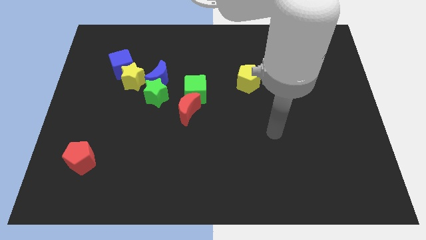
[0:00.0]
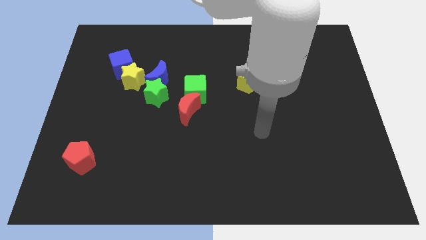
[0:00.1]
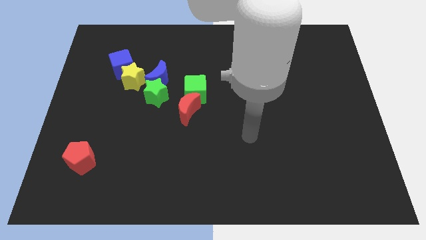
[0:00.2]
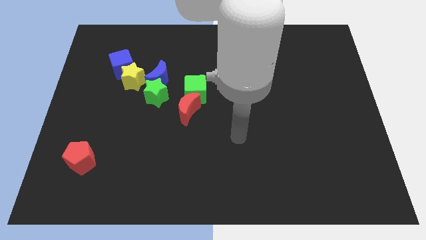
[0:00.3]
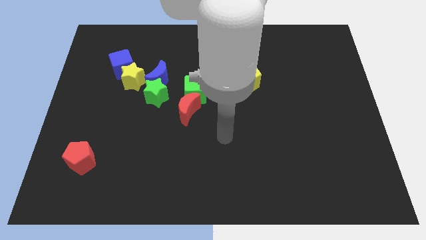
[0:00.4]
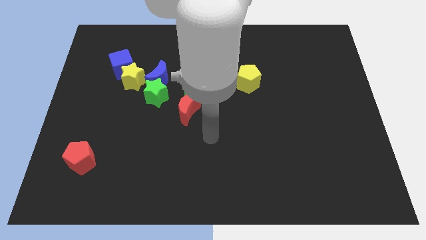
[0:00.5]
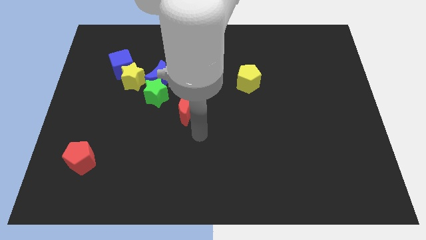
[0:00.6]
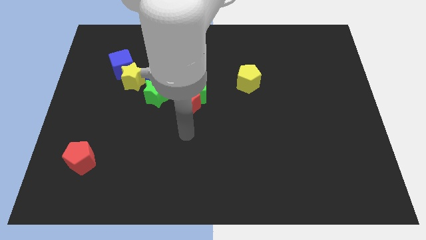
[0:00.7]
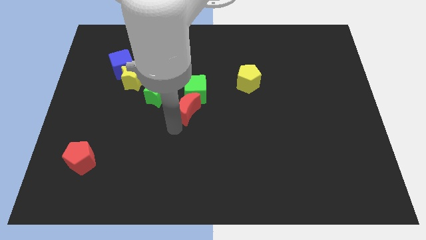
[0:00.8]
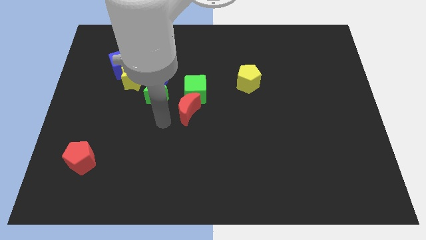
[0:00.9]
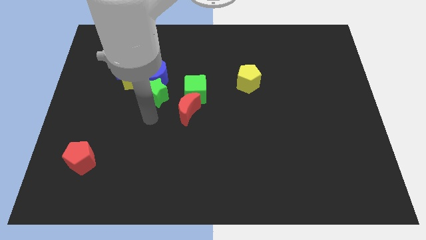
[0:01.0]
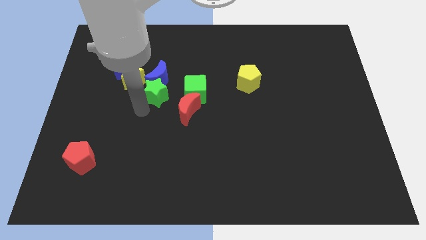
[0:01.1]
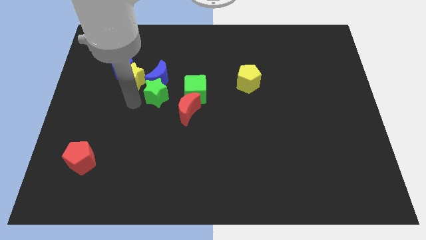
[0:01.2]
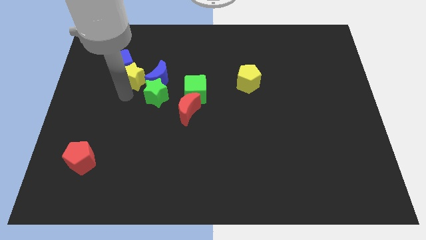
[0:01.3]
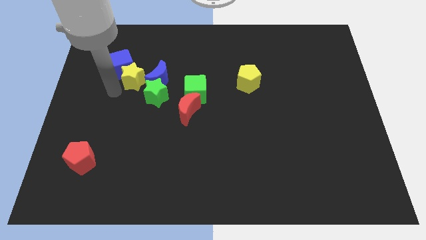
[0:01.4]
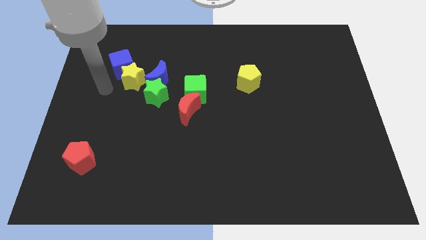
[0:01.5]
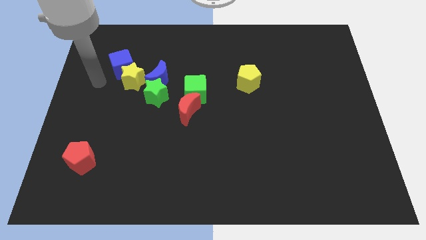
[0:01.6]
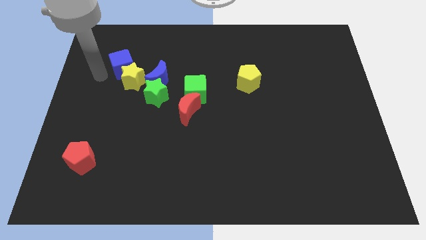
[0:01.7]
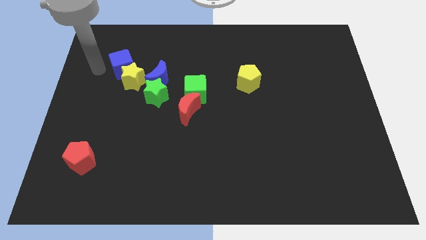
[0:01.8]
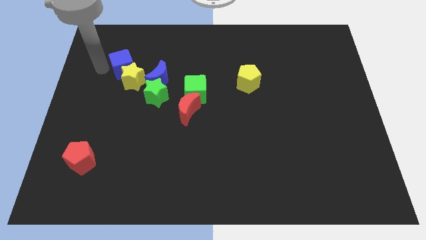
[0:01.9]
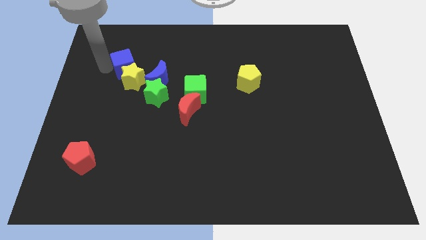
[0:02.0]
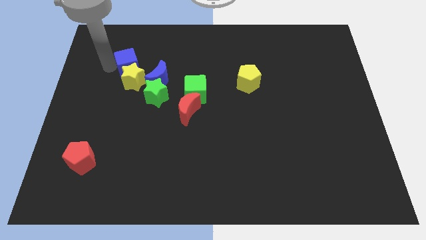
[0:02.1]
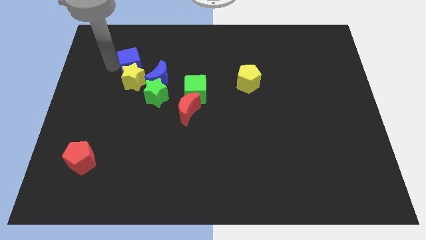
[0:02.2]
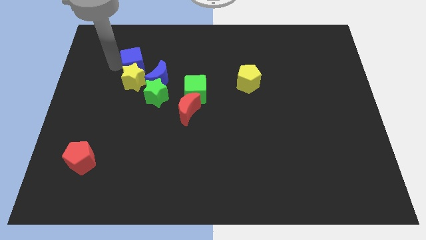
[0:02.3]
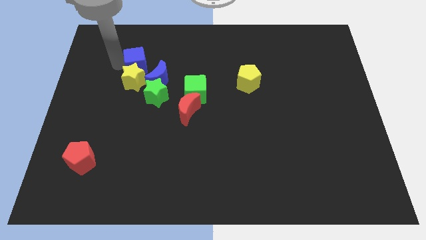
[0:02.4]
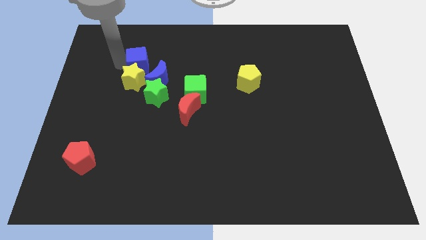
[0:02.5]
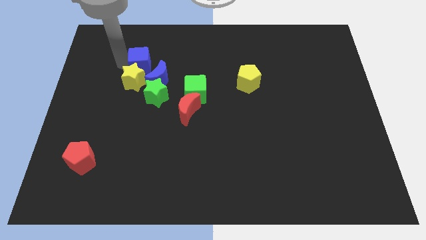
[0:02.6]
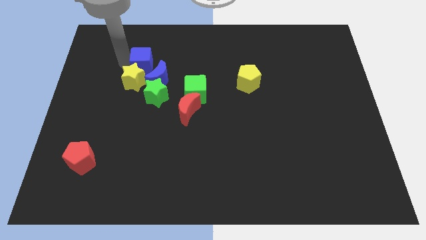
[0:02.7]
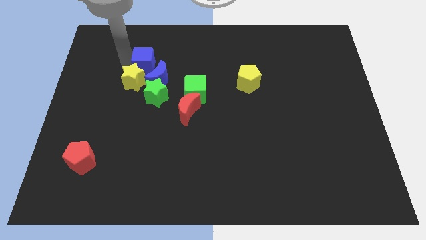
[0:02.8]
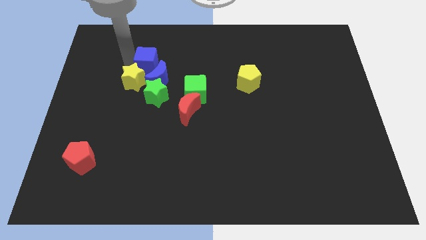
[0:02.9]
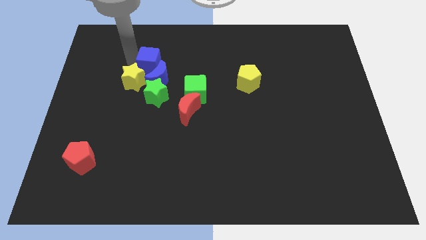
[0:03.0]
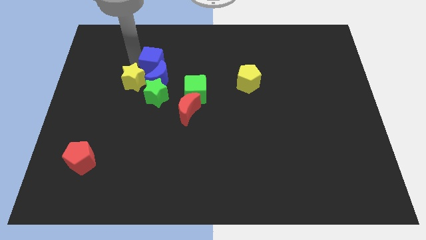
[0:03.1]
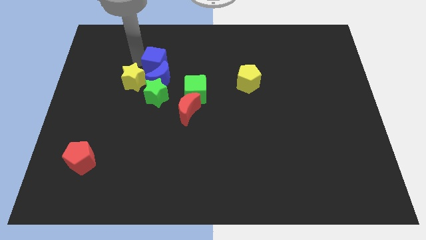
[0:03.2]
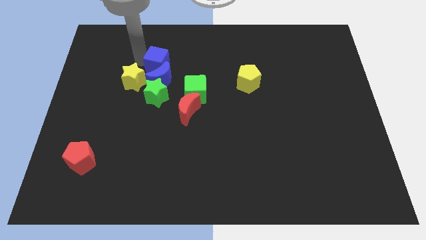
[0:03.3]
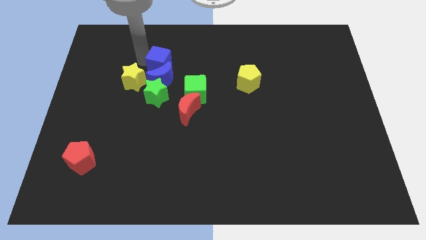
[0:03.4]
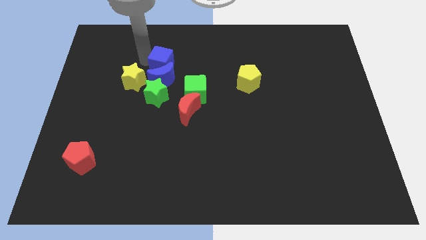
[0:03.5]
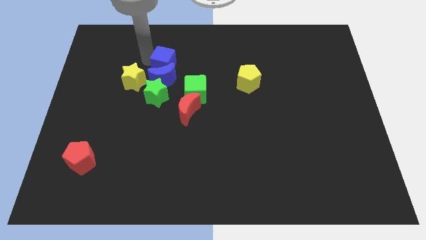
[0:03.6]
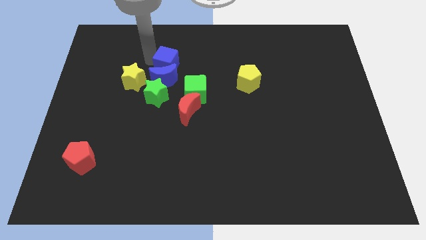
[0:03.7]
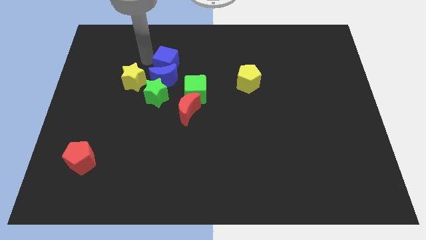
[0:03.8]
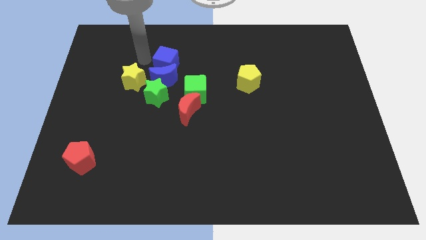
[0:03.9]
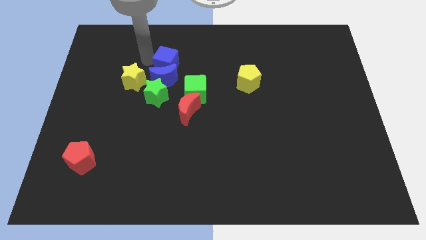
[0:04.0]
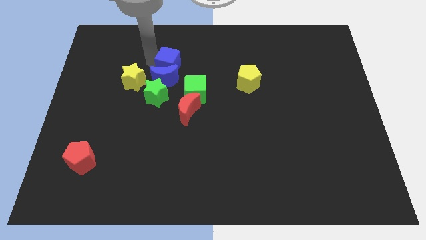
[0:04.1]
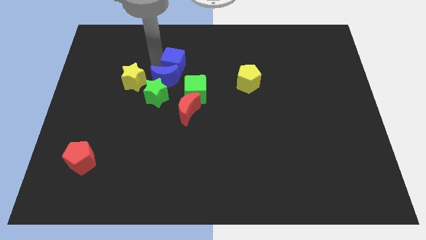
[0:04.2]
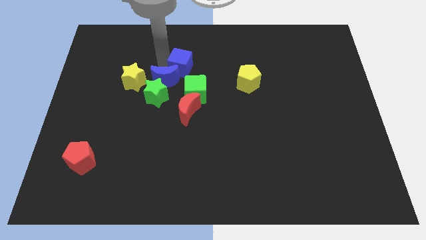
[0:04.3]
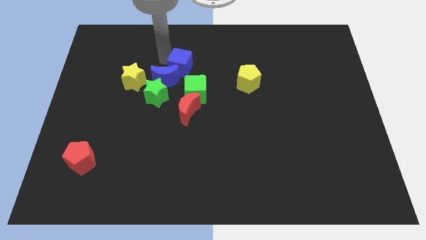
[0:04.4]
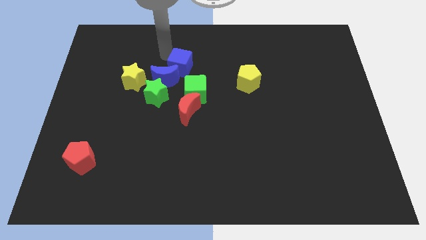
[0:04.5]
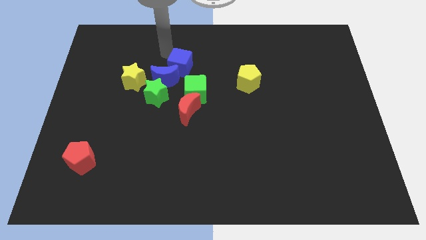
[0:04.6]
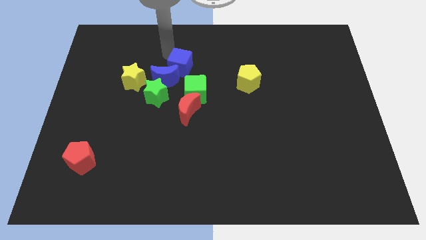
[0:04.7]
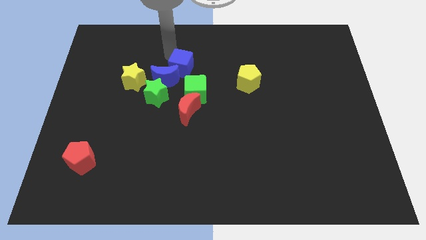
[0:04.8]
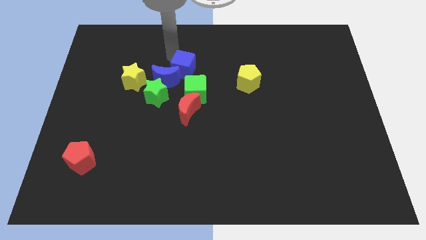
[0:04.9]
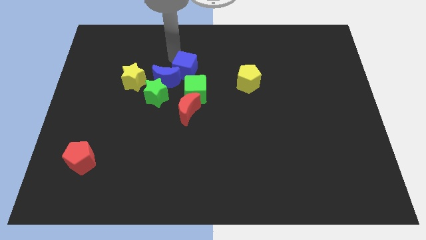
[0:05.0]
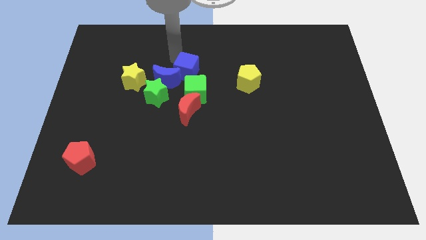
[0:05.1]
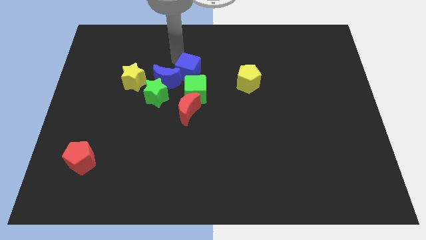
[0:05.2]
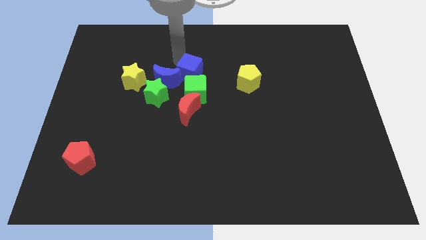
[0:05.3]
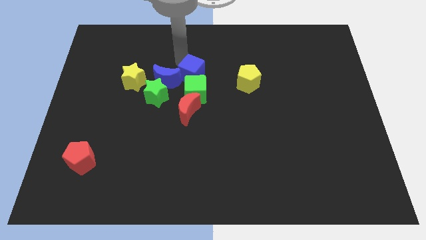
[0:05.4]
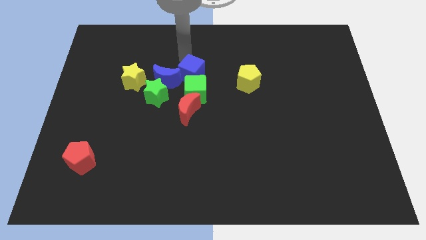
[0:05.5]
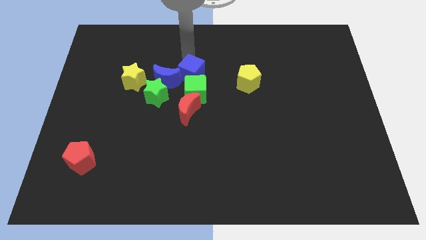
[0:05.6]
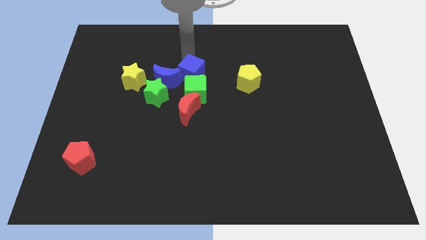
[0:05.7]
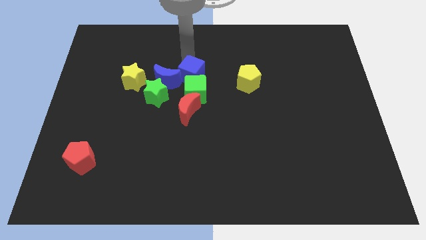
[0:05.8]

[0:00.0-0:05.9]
push the blue cube close to the green cube

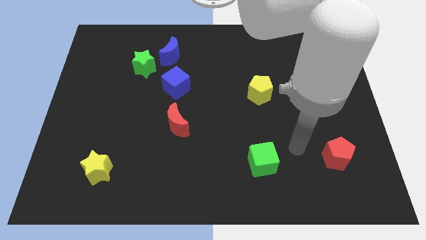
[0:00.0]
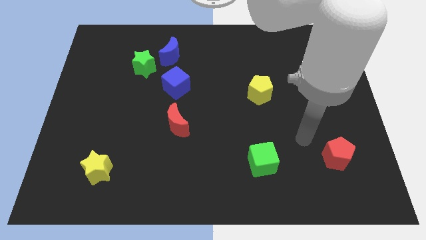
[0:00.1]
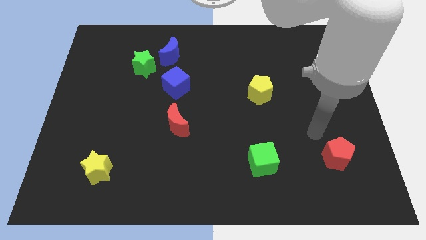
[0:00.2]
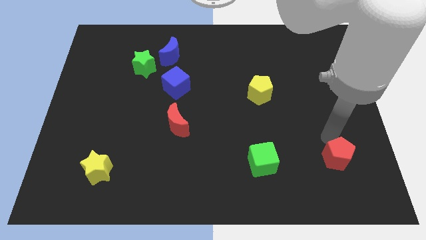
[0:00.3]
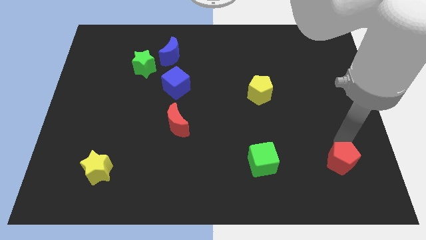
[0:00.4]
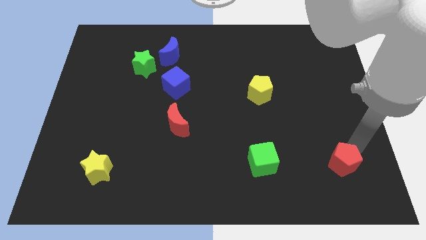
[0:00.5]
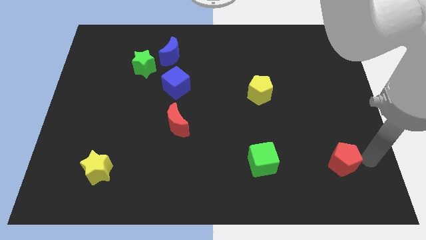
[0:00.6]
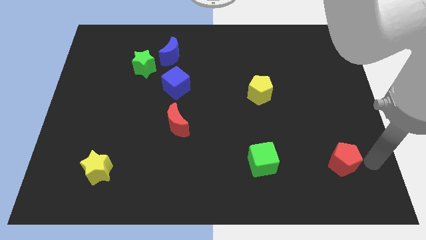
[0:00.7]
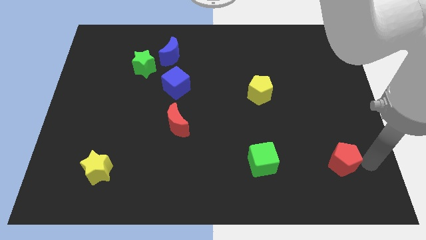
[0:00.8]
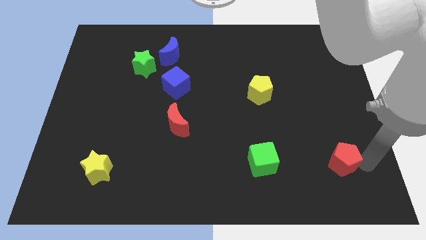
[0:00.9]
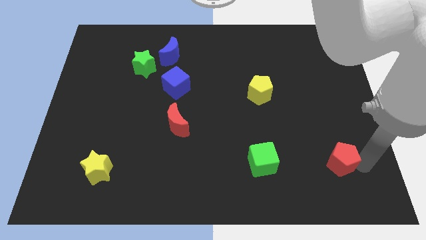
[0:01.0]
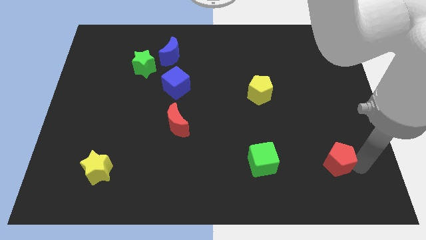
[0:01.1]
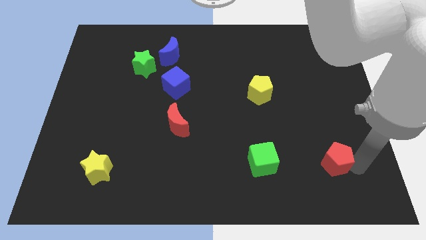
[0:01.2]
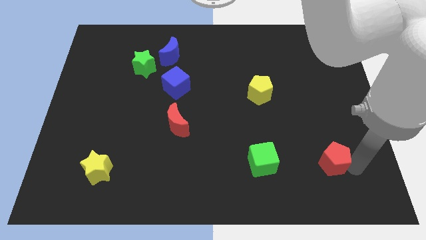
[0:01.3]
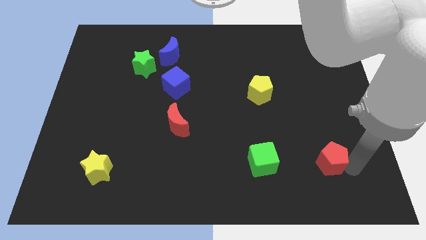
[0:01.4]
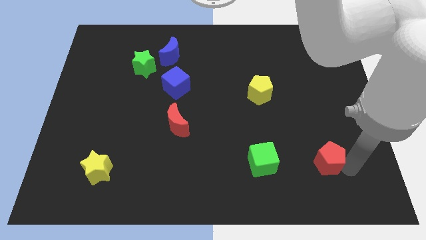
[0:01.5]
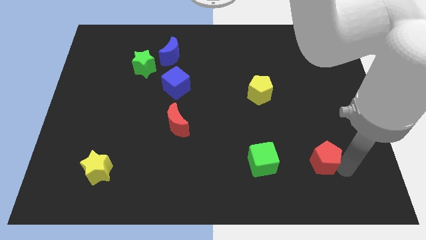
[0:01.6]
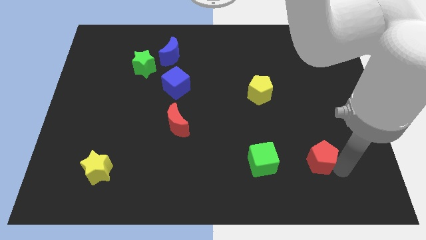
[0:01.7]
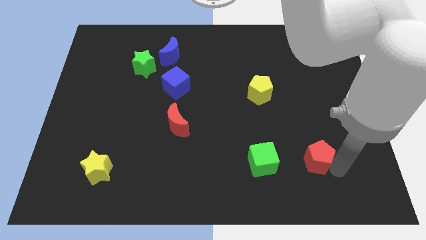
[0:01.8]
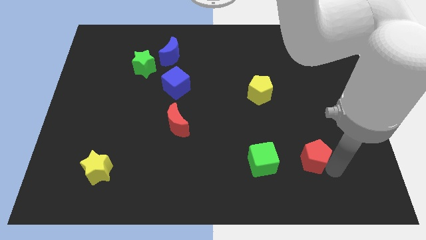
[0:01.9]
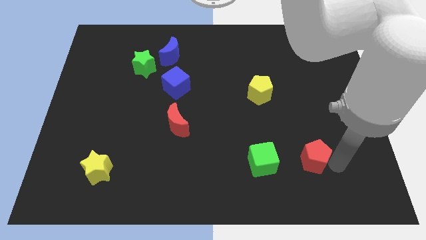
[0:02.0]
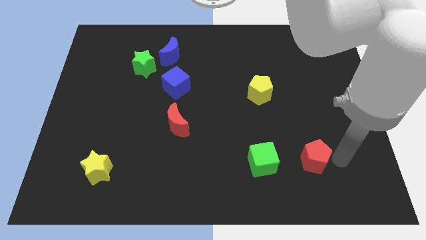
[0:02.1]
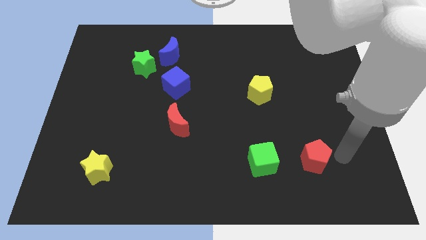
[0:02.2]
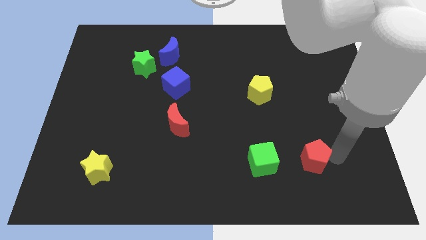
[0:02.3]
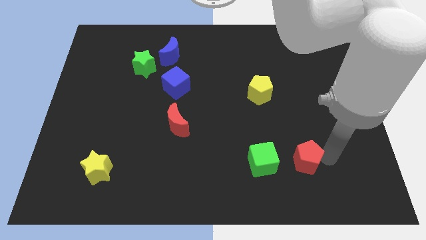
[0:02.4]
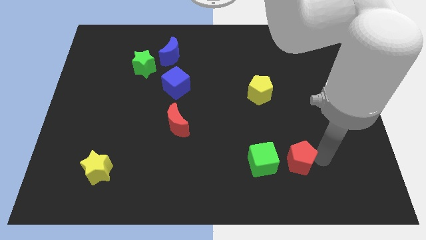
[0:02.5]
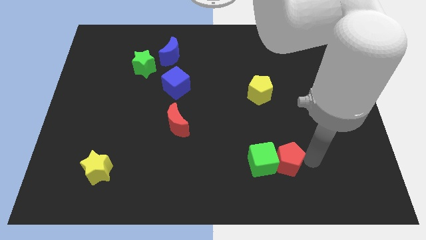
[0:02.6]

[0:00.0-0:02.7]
move the red pentagon towards the green cube
